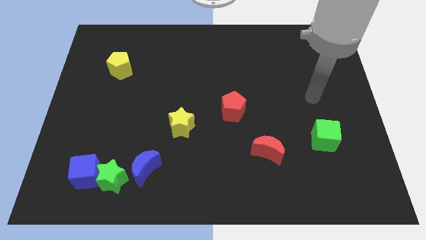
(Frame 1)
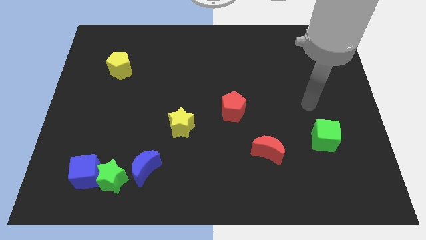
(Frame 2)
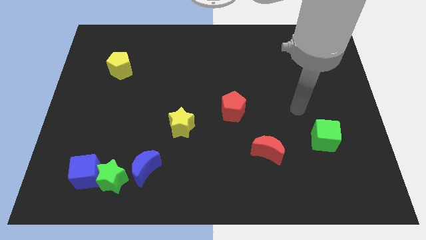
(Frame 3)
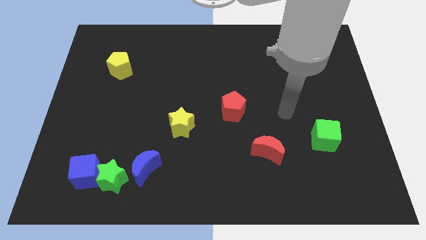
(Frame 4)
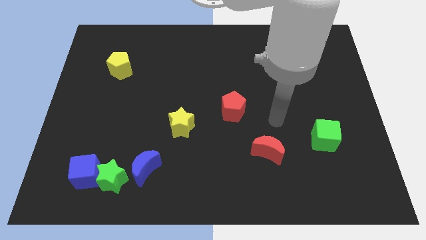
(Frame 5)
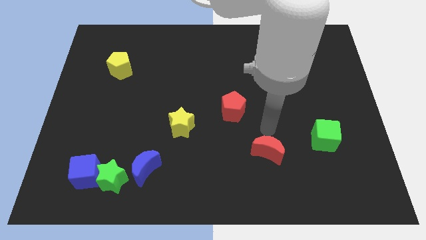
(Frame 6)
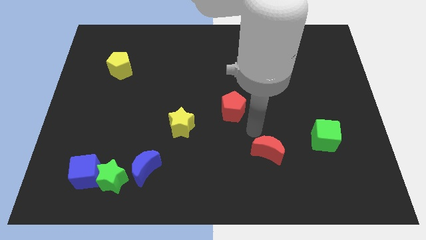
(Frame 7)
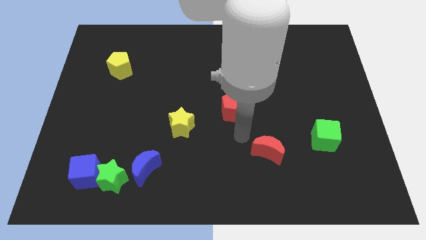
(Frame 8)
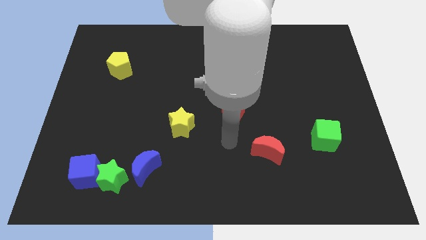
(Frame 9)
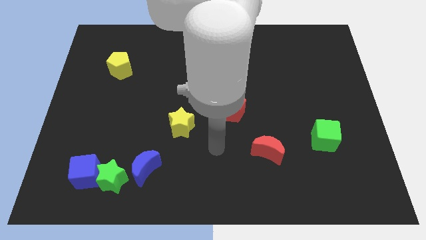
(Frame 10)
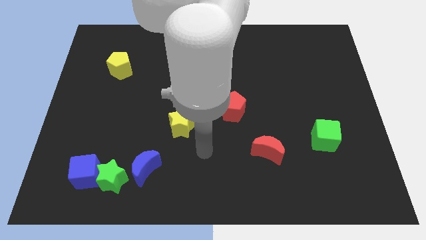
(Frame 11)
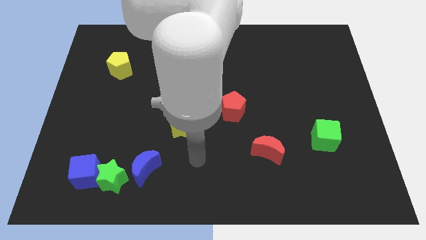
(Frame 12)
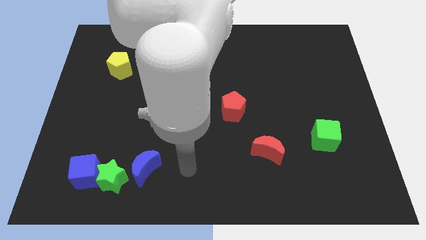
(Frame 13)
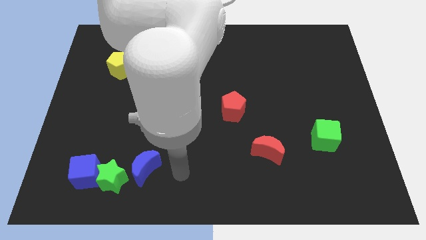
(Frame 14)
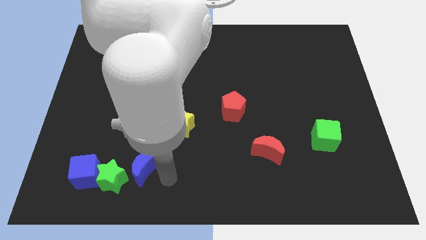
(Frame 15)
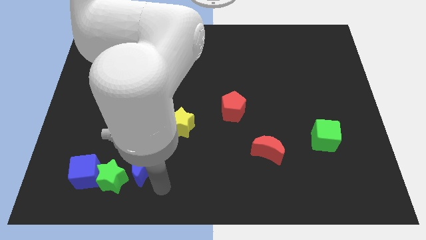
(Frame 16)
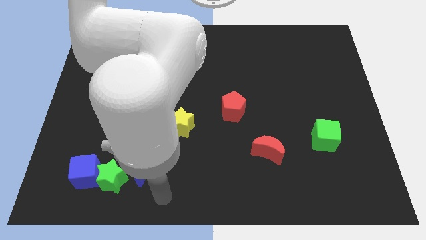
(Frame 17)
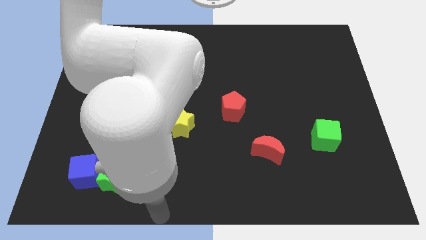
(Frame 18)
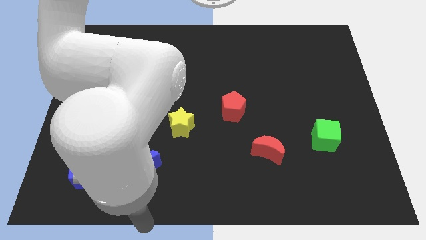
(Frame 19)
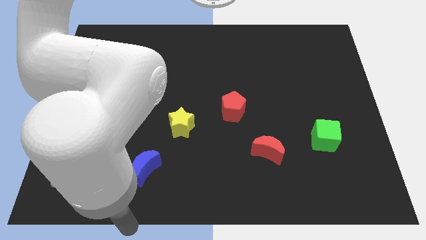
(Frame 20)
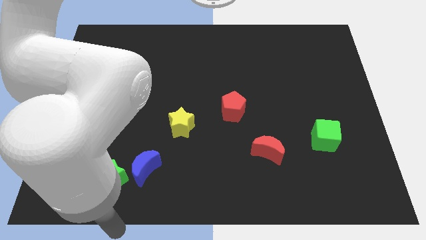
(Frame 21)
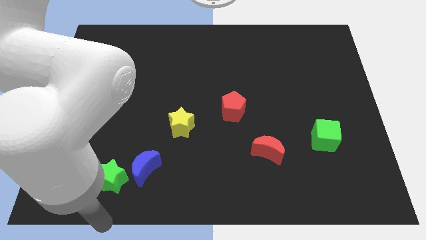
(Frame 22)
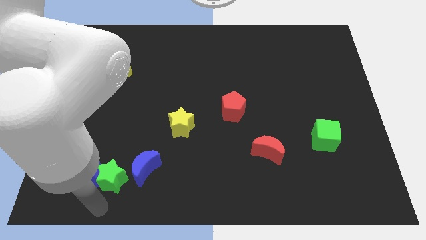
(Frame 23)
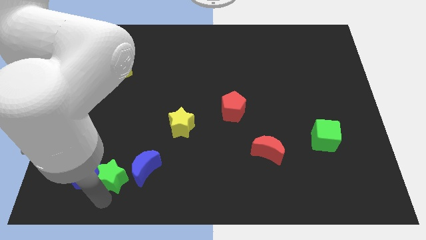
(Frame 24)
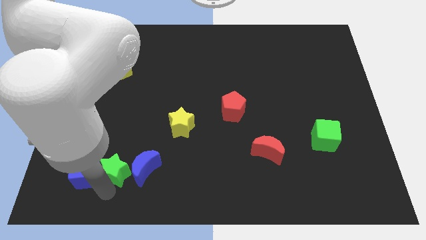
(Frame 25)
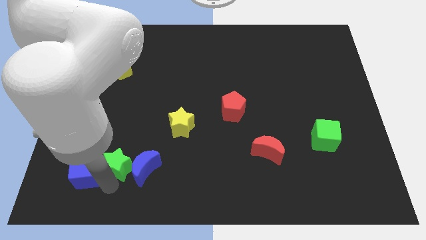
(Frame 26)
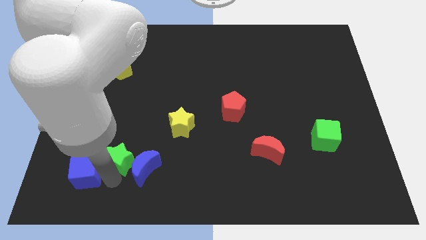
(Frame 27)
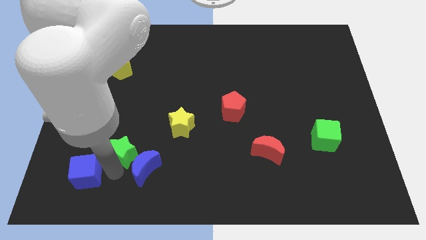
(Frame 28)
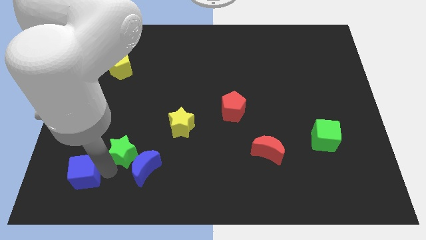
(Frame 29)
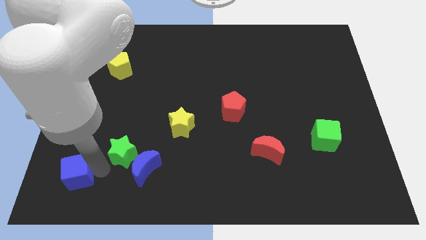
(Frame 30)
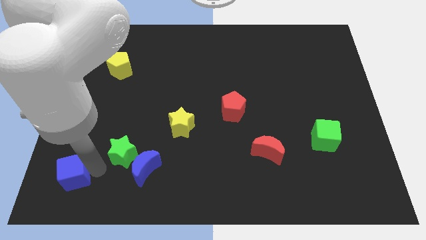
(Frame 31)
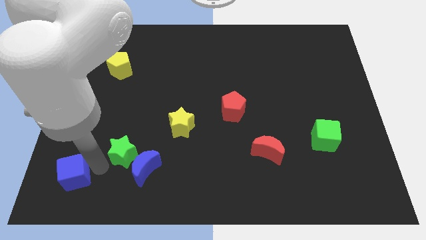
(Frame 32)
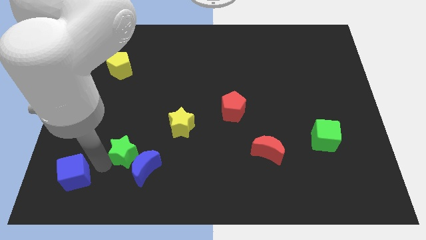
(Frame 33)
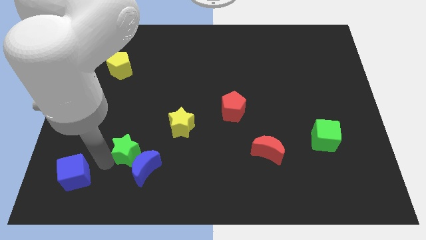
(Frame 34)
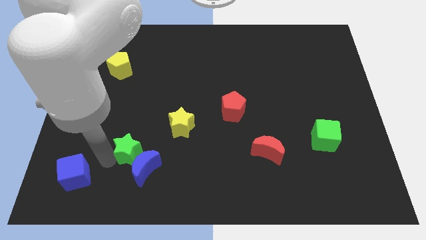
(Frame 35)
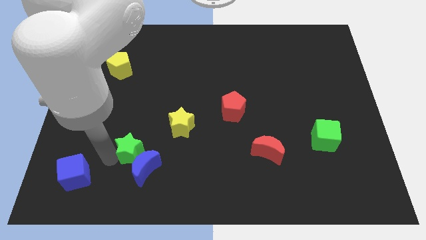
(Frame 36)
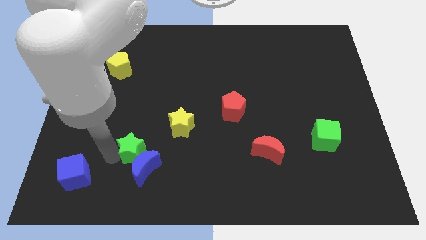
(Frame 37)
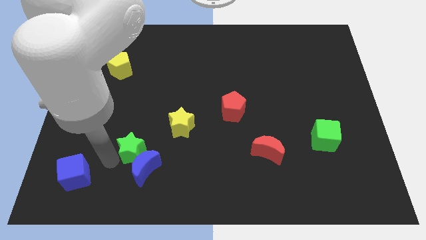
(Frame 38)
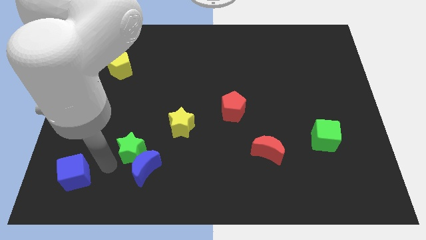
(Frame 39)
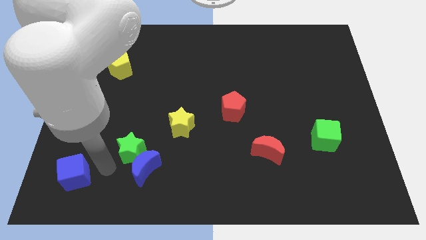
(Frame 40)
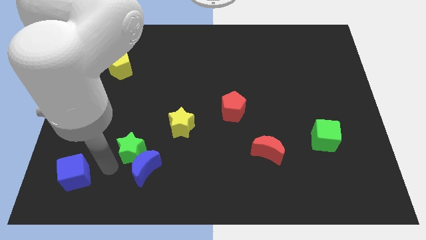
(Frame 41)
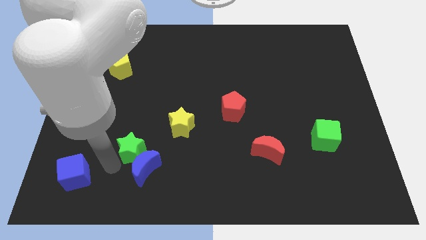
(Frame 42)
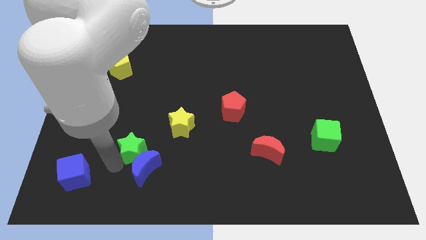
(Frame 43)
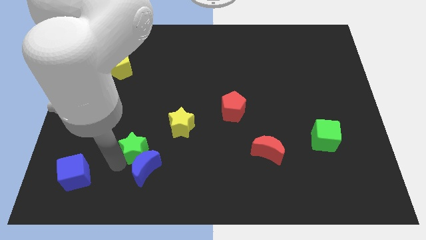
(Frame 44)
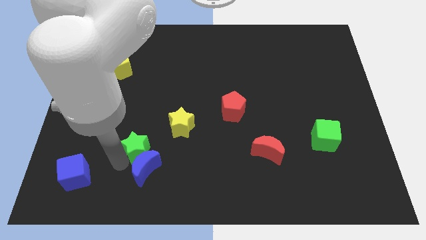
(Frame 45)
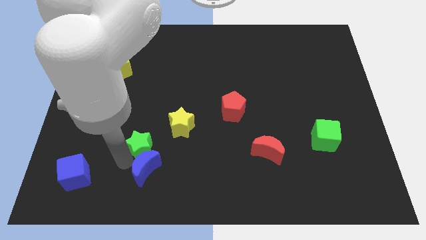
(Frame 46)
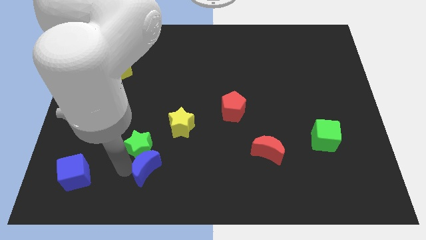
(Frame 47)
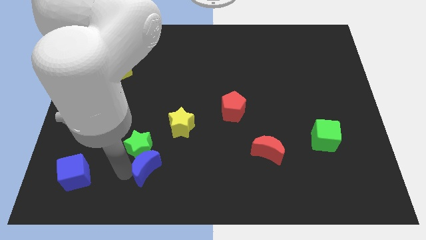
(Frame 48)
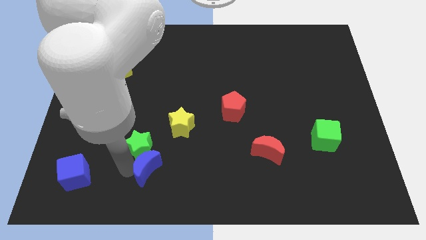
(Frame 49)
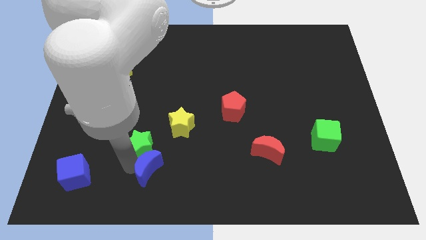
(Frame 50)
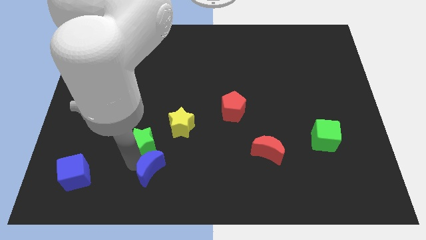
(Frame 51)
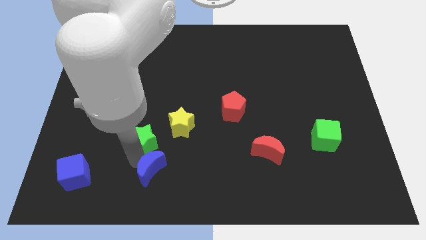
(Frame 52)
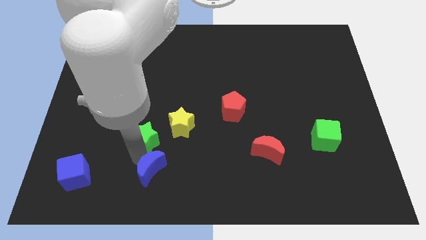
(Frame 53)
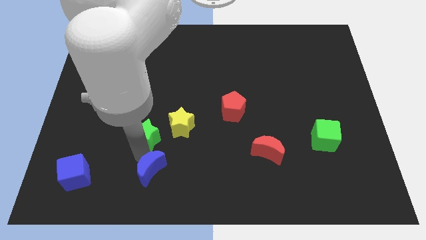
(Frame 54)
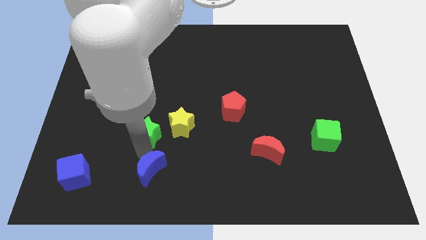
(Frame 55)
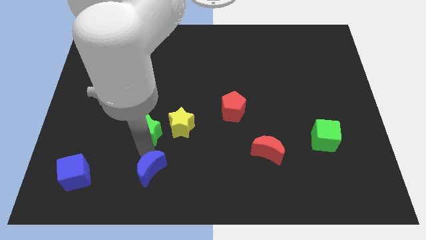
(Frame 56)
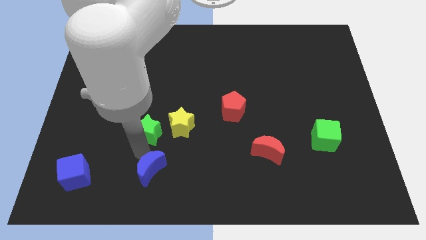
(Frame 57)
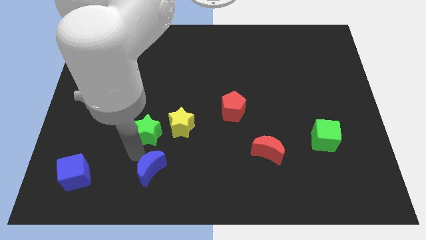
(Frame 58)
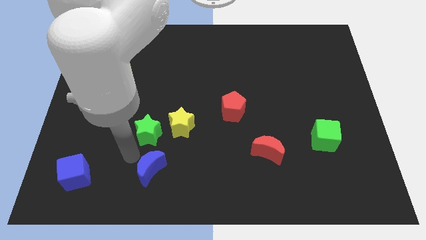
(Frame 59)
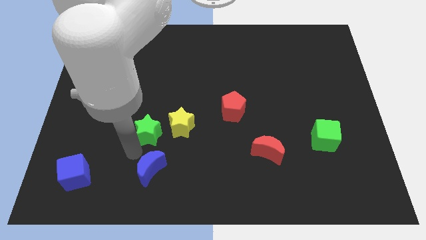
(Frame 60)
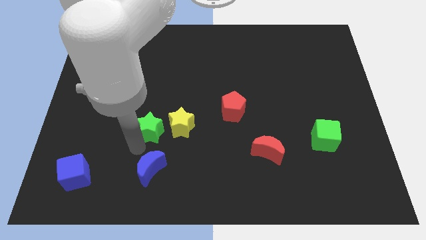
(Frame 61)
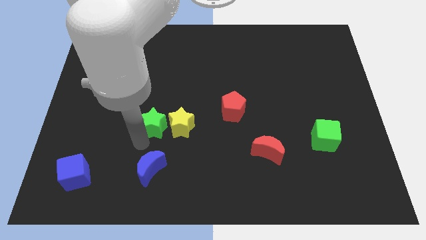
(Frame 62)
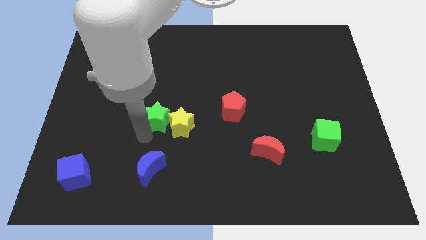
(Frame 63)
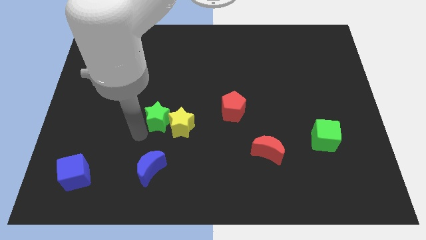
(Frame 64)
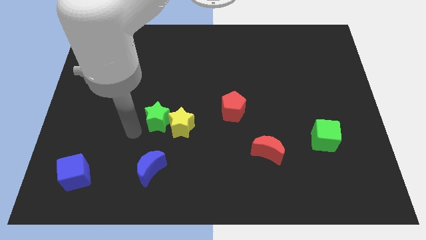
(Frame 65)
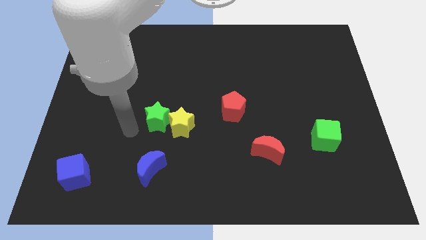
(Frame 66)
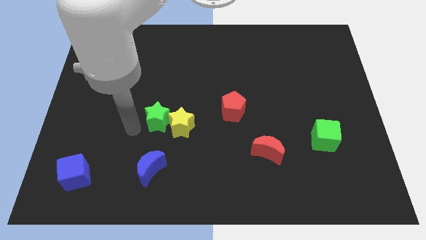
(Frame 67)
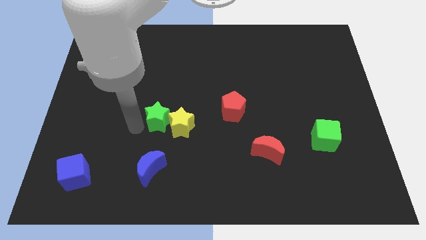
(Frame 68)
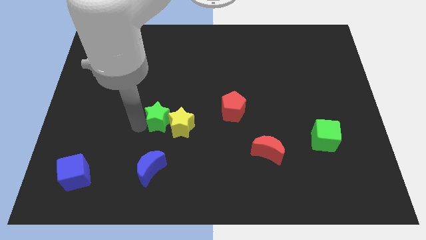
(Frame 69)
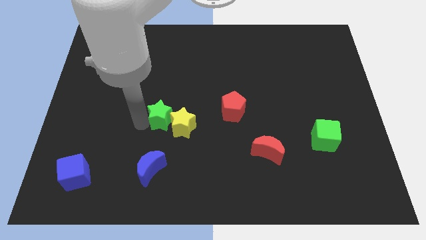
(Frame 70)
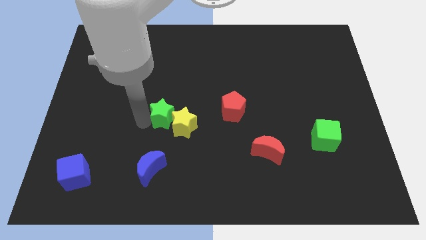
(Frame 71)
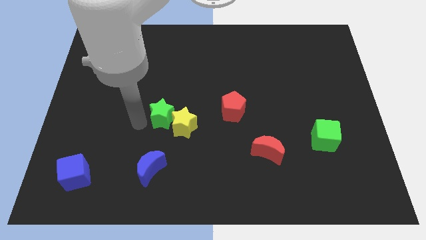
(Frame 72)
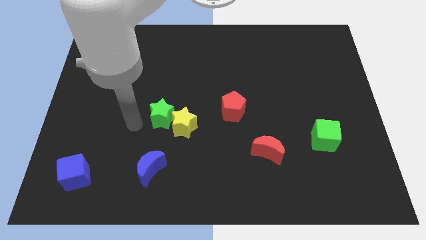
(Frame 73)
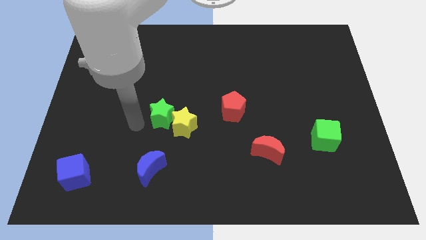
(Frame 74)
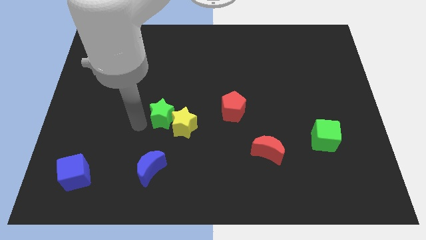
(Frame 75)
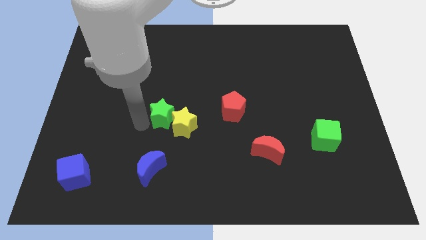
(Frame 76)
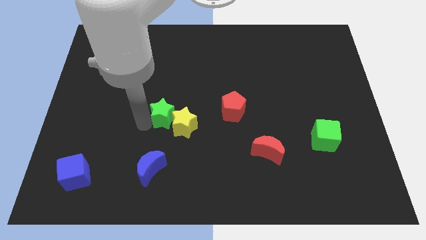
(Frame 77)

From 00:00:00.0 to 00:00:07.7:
push the green star to the center
